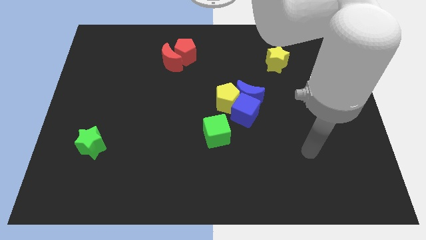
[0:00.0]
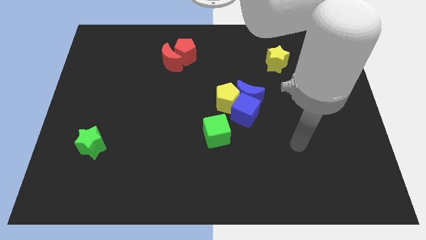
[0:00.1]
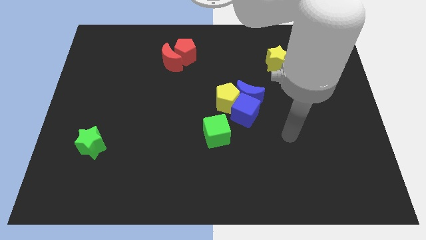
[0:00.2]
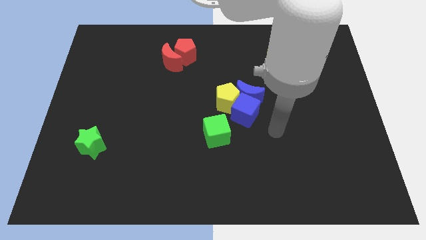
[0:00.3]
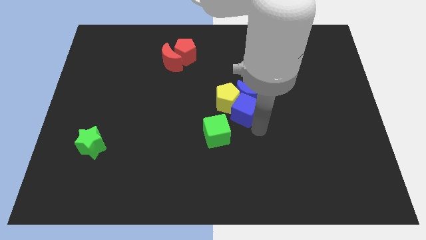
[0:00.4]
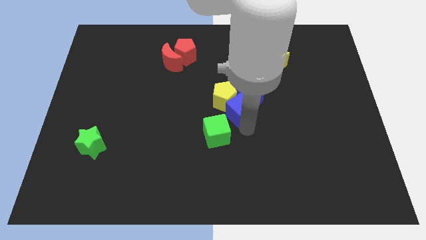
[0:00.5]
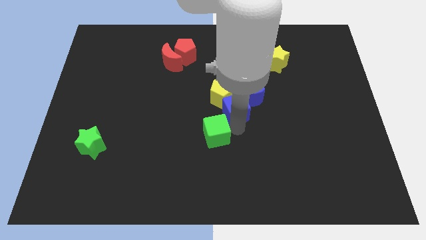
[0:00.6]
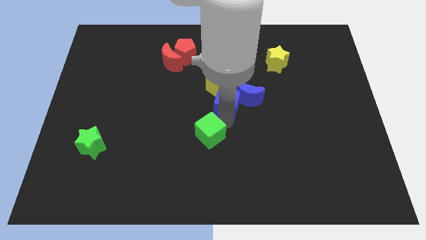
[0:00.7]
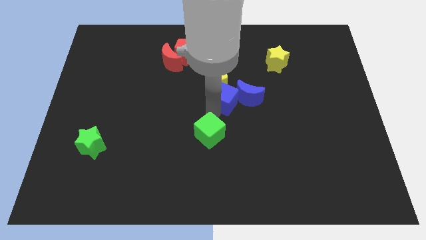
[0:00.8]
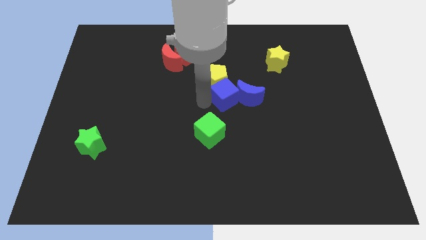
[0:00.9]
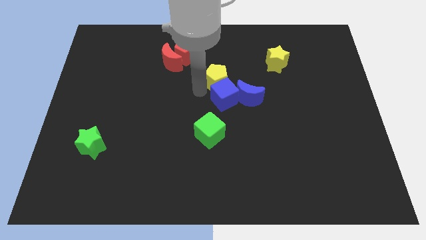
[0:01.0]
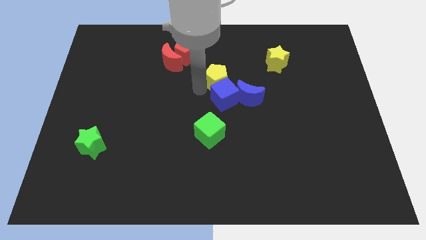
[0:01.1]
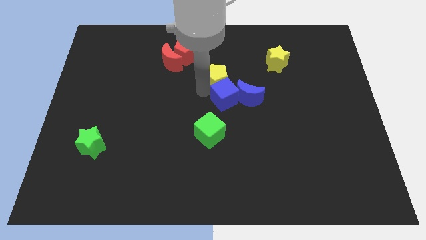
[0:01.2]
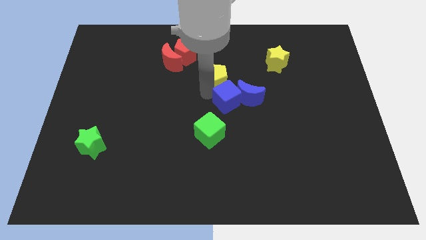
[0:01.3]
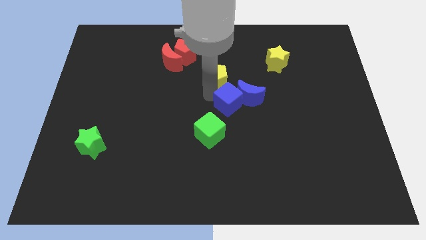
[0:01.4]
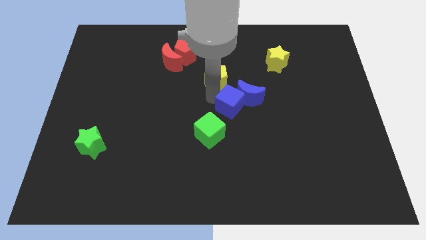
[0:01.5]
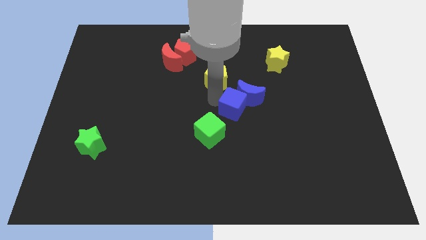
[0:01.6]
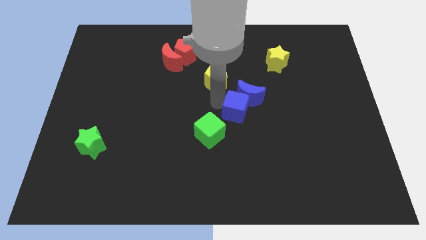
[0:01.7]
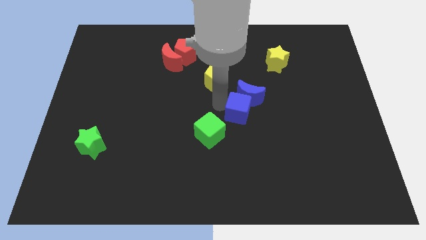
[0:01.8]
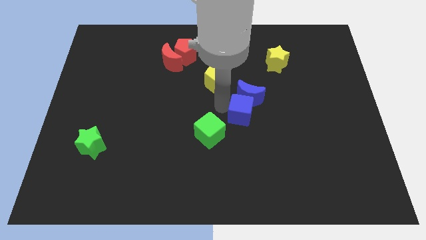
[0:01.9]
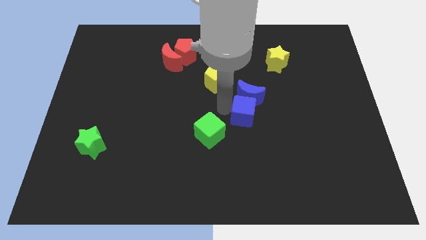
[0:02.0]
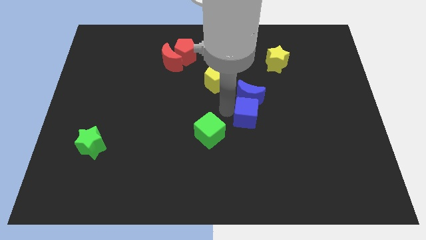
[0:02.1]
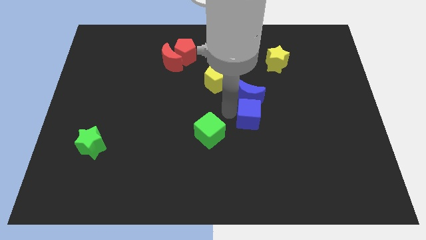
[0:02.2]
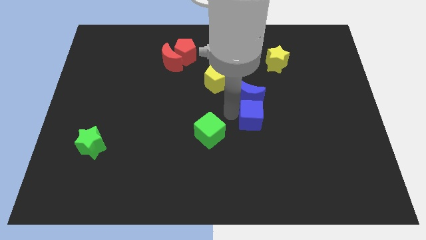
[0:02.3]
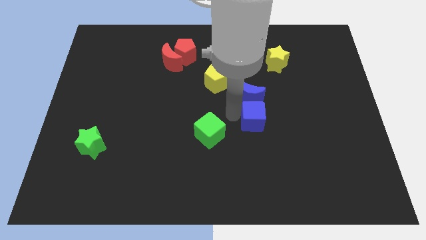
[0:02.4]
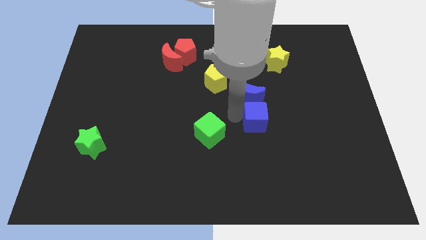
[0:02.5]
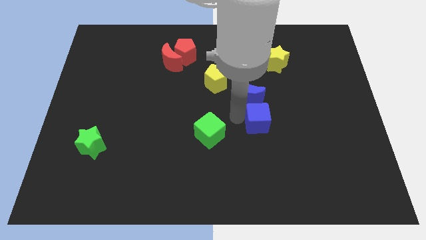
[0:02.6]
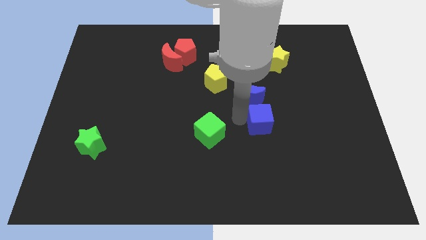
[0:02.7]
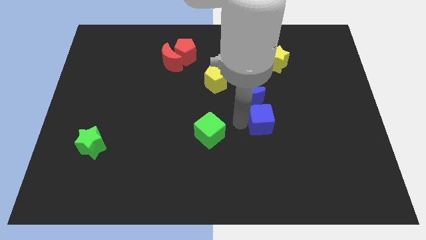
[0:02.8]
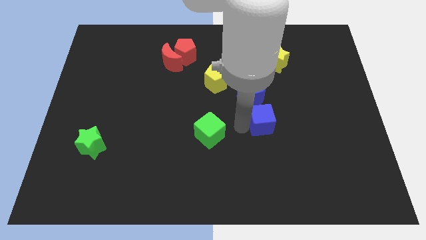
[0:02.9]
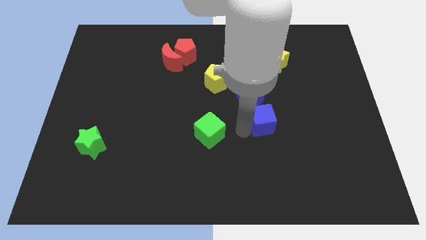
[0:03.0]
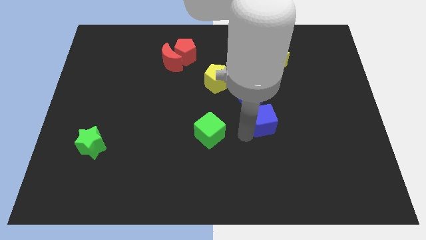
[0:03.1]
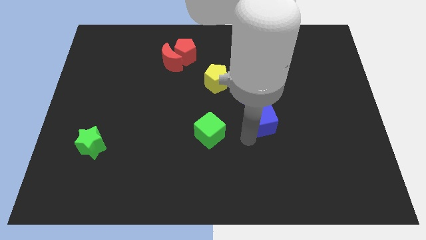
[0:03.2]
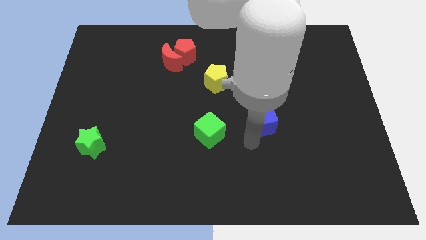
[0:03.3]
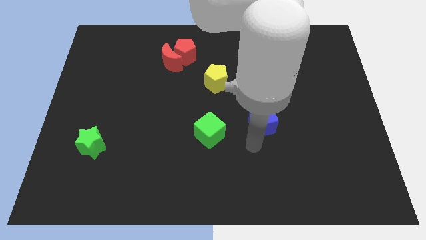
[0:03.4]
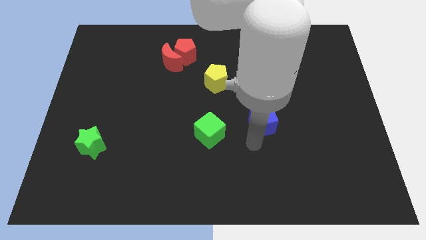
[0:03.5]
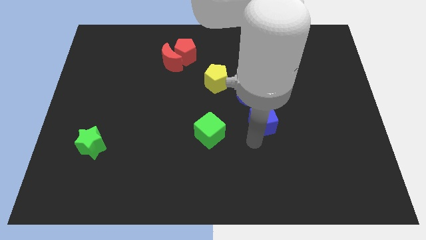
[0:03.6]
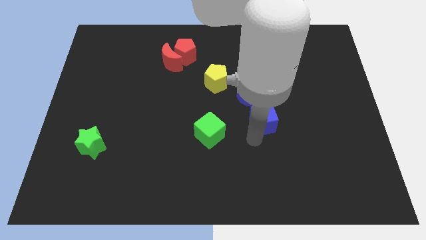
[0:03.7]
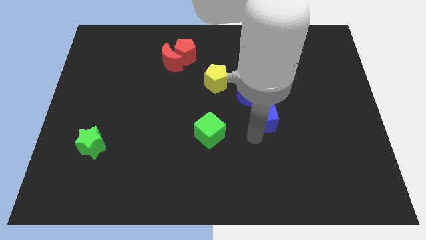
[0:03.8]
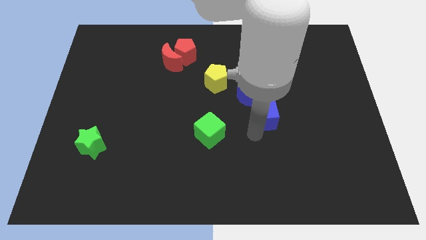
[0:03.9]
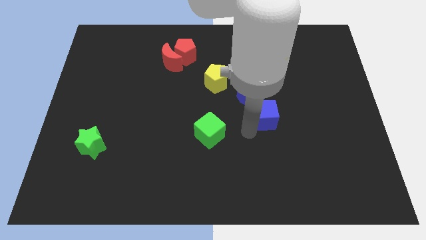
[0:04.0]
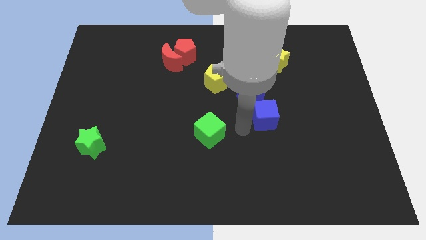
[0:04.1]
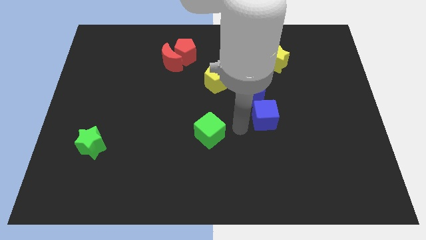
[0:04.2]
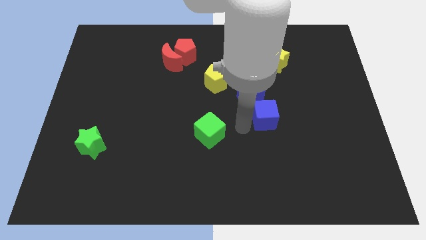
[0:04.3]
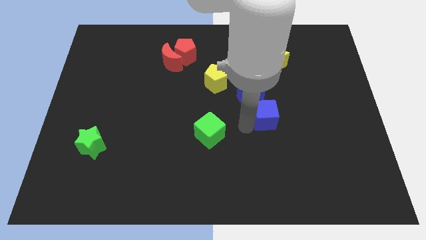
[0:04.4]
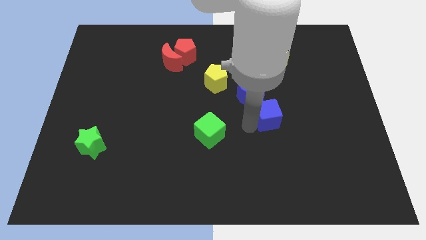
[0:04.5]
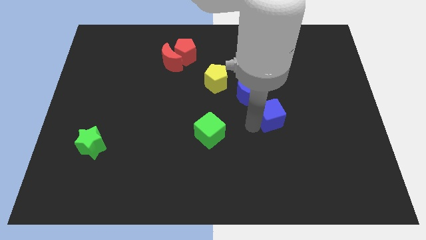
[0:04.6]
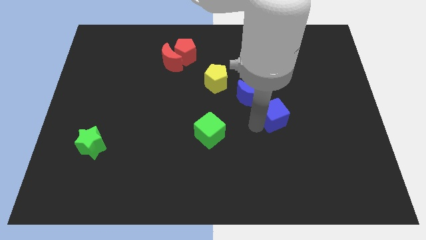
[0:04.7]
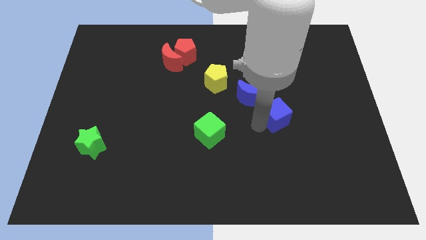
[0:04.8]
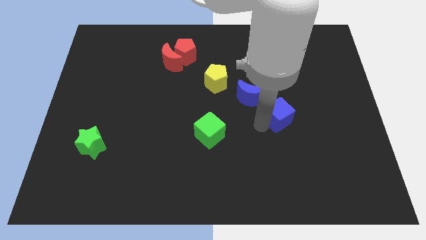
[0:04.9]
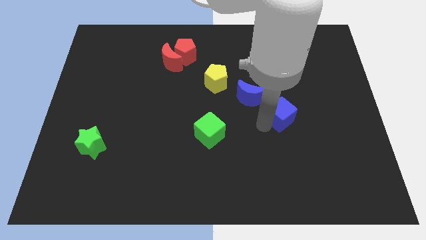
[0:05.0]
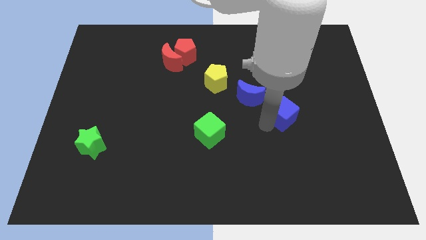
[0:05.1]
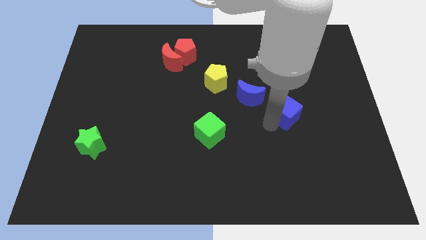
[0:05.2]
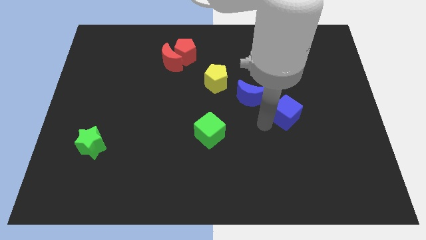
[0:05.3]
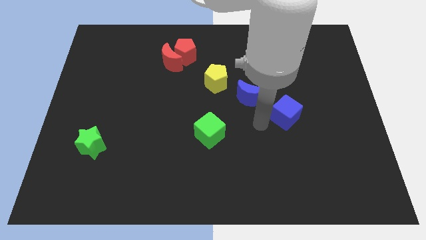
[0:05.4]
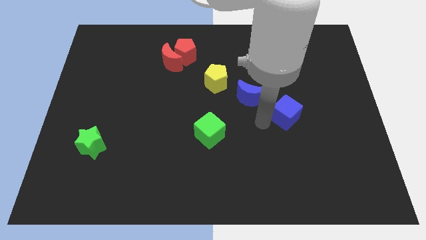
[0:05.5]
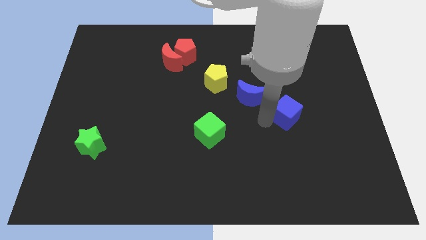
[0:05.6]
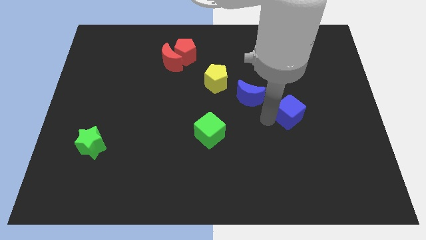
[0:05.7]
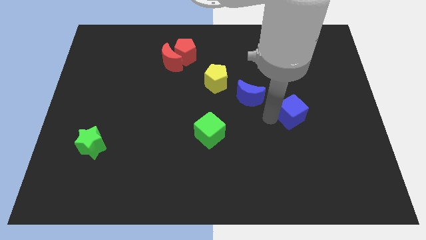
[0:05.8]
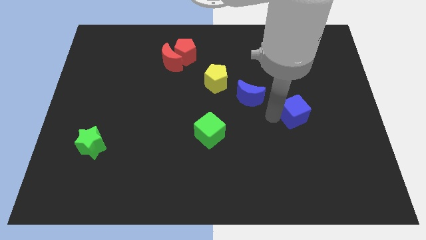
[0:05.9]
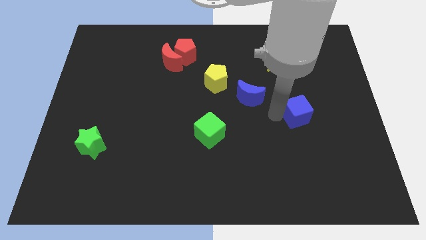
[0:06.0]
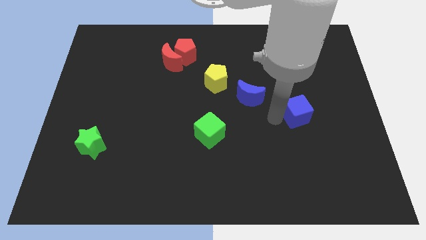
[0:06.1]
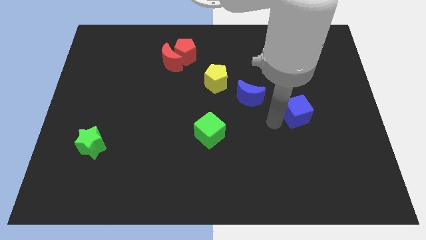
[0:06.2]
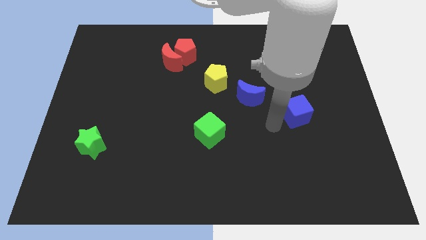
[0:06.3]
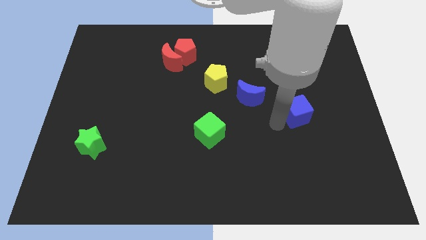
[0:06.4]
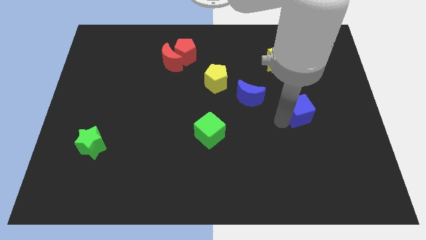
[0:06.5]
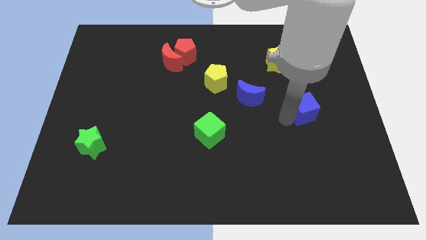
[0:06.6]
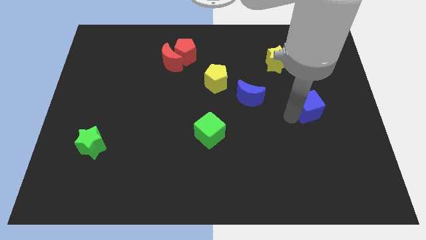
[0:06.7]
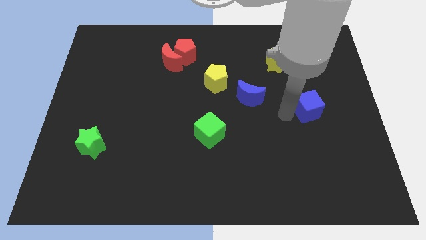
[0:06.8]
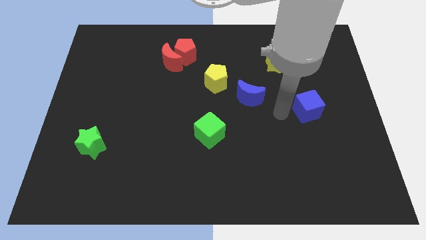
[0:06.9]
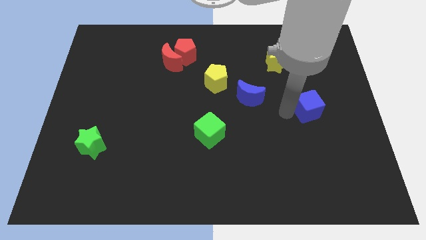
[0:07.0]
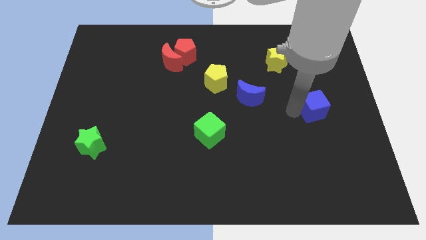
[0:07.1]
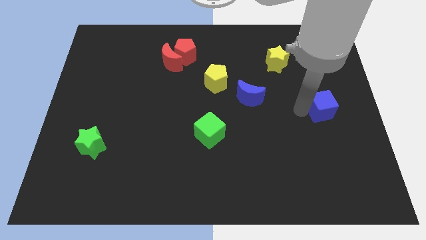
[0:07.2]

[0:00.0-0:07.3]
slide the blue cube to the right side of the board

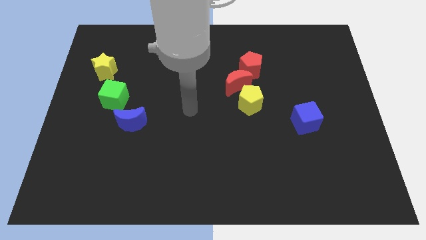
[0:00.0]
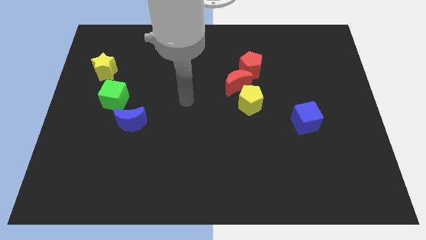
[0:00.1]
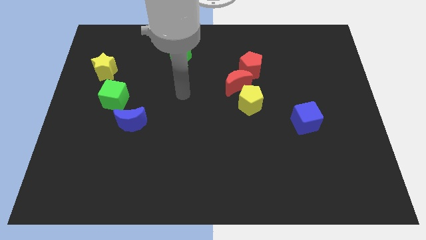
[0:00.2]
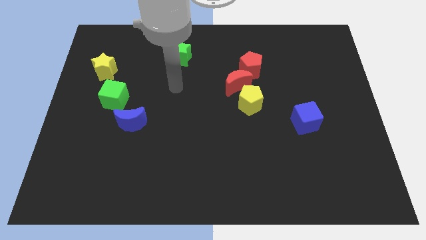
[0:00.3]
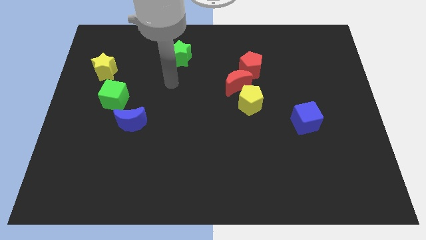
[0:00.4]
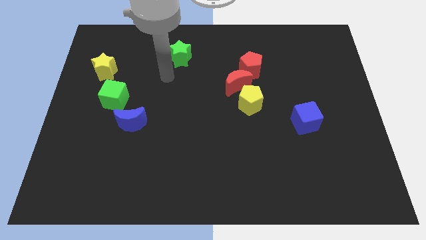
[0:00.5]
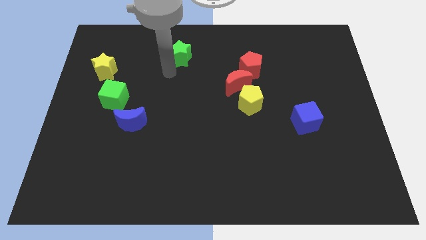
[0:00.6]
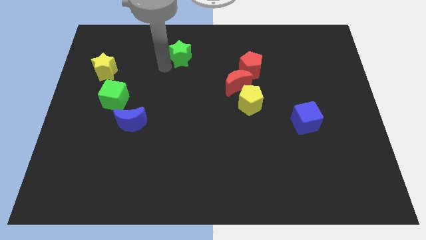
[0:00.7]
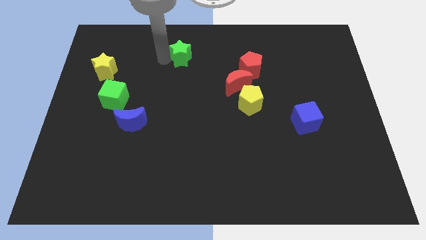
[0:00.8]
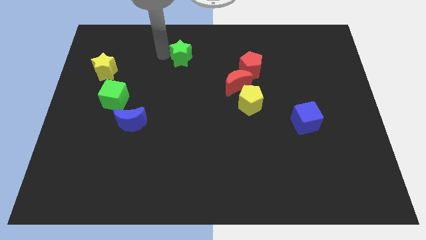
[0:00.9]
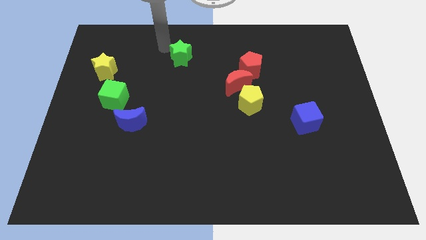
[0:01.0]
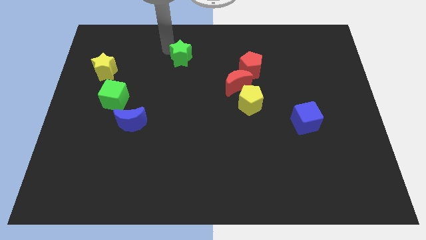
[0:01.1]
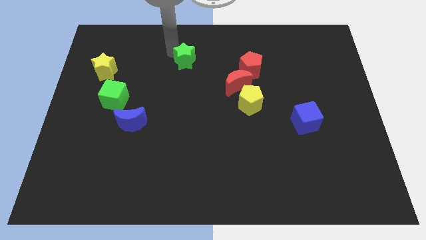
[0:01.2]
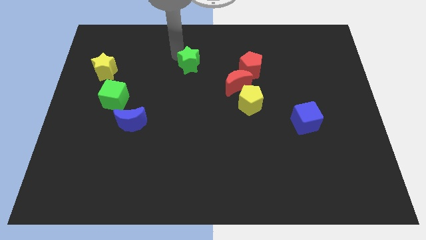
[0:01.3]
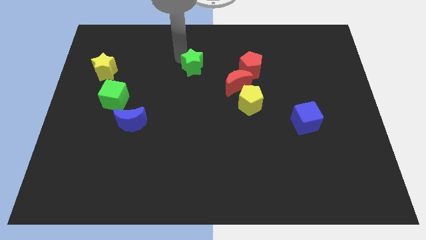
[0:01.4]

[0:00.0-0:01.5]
put the green star to the middle of the board
